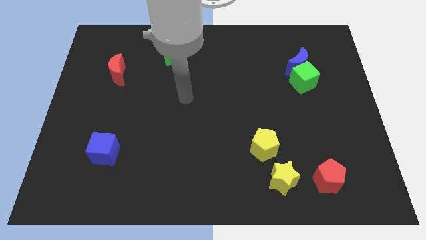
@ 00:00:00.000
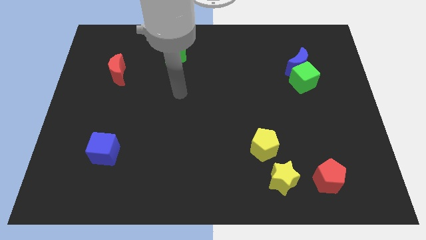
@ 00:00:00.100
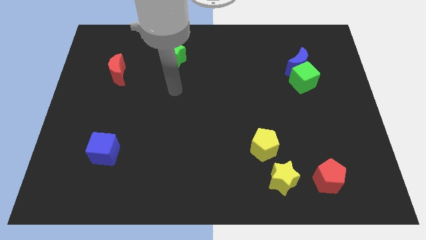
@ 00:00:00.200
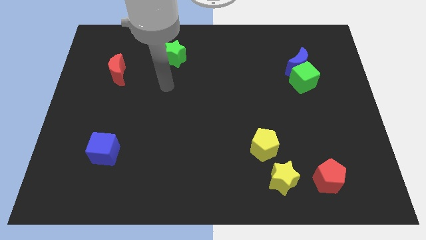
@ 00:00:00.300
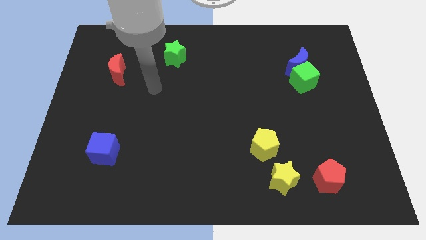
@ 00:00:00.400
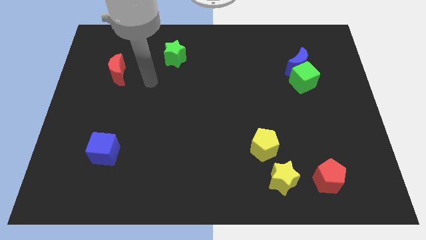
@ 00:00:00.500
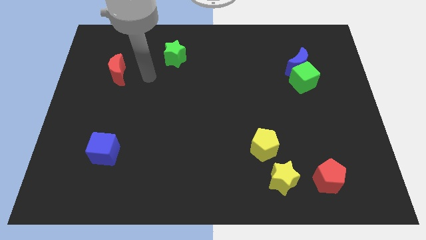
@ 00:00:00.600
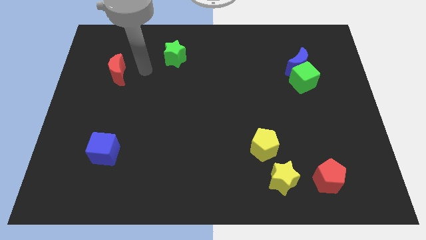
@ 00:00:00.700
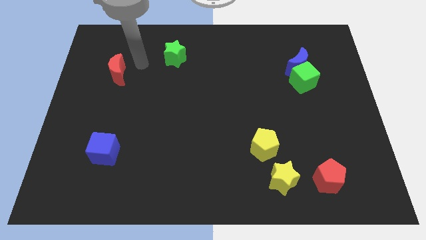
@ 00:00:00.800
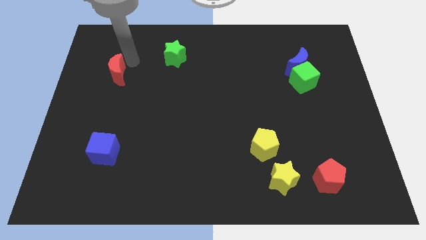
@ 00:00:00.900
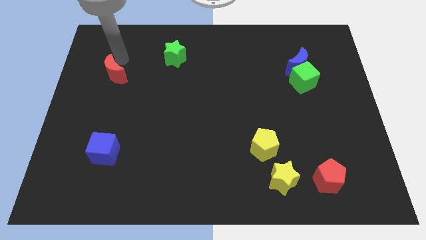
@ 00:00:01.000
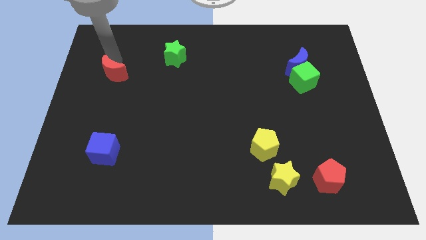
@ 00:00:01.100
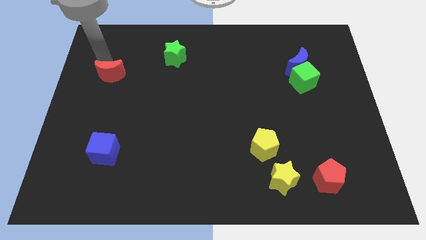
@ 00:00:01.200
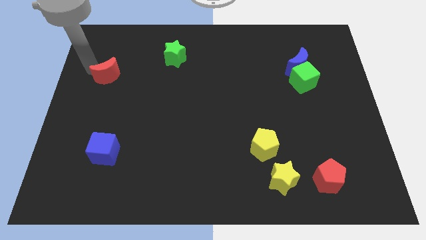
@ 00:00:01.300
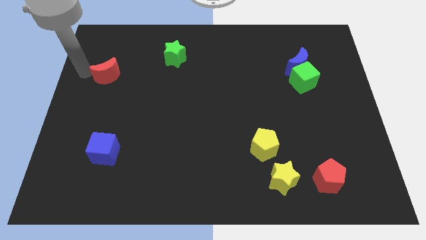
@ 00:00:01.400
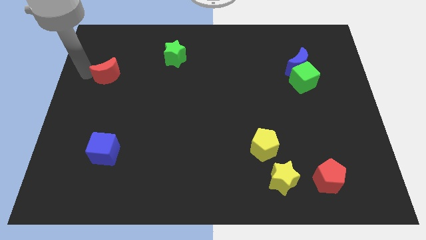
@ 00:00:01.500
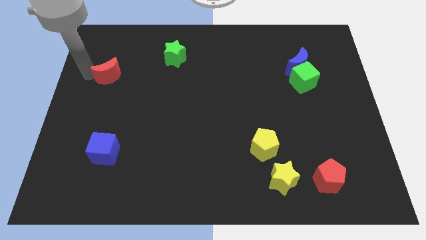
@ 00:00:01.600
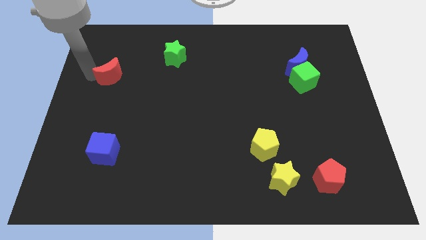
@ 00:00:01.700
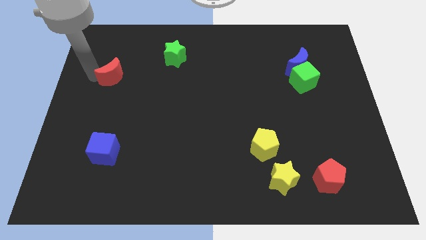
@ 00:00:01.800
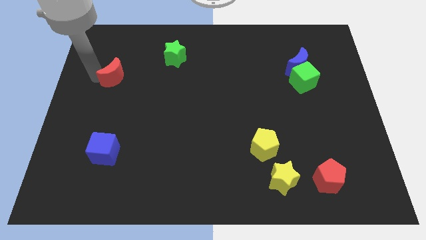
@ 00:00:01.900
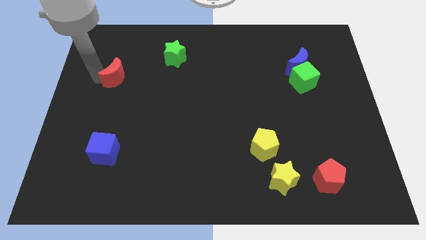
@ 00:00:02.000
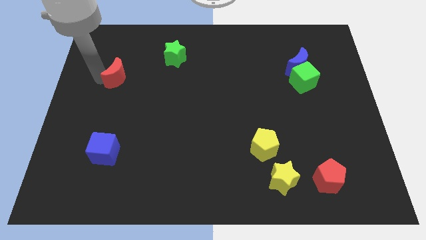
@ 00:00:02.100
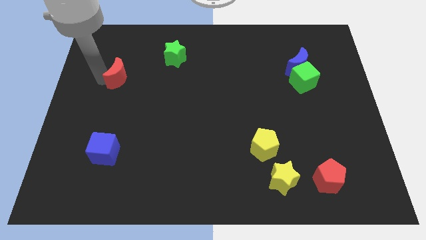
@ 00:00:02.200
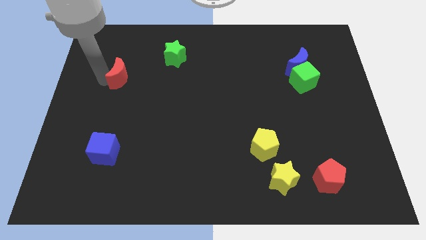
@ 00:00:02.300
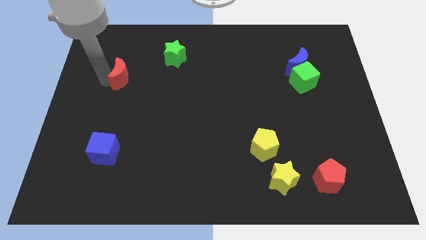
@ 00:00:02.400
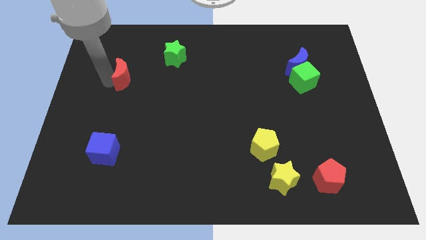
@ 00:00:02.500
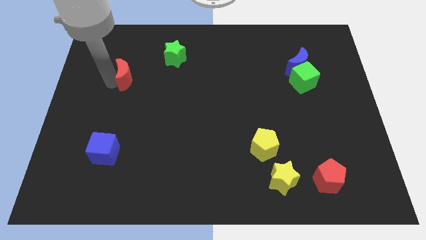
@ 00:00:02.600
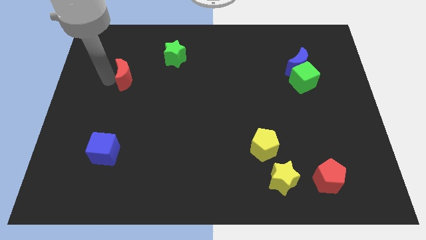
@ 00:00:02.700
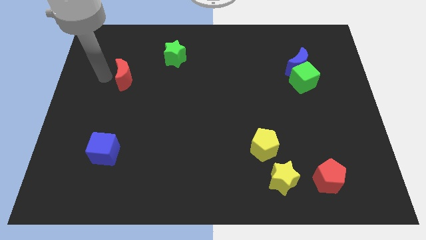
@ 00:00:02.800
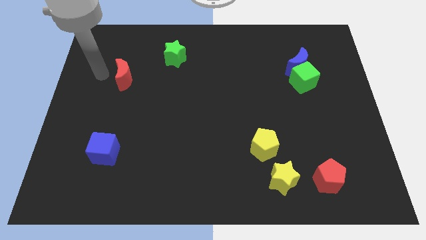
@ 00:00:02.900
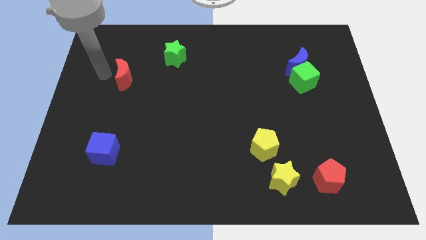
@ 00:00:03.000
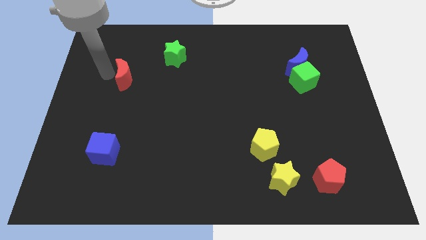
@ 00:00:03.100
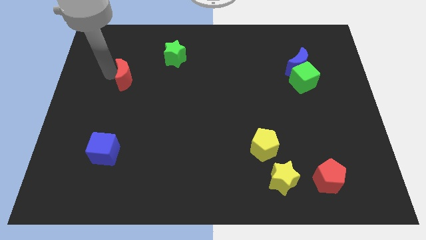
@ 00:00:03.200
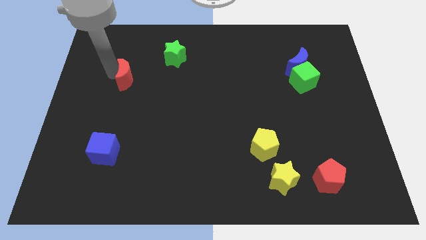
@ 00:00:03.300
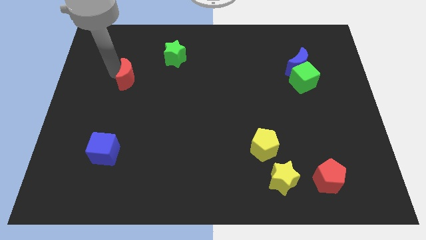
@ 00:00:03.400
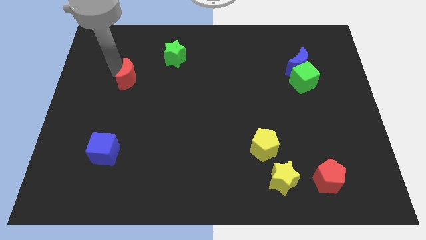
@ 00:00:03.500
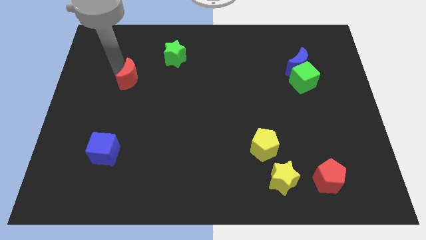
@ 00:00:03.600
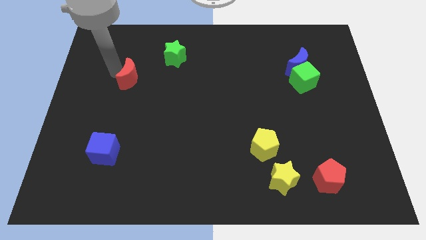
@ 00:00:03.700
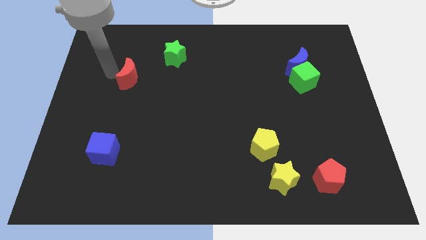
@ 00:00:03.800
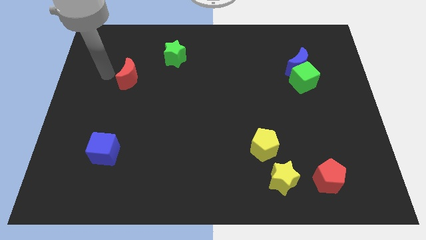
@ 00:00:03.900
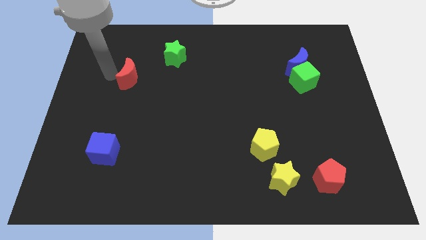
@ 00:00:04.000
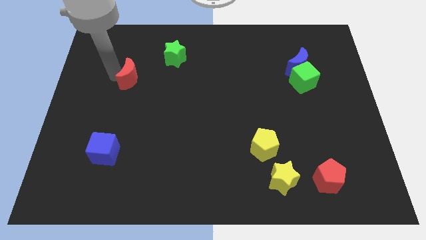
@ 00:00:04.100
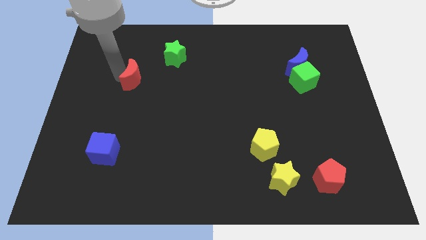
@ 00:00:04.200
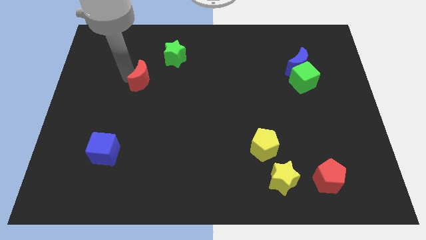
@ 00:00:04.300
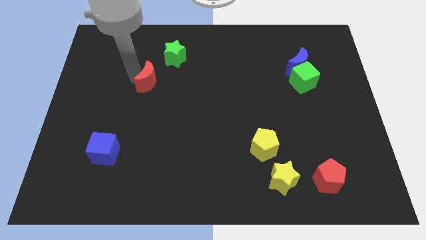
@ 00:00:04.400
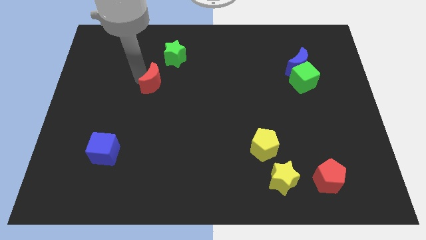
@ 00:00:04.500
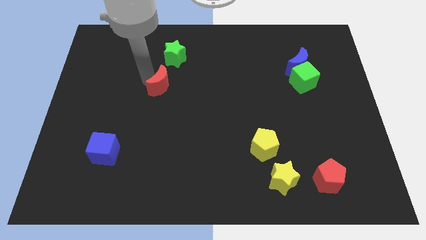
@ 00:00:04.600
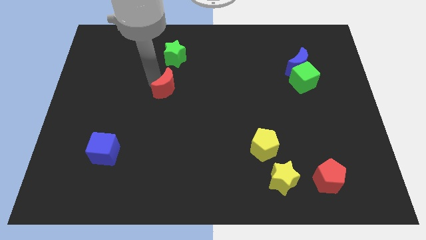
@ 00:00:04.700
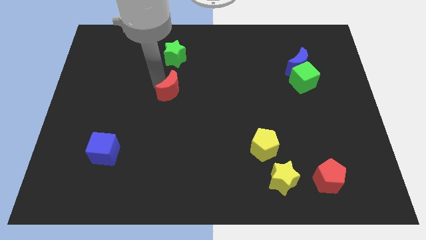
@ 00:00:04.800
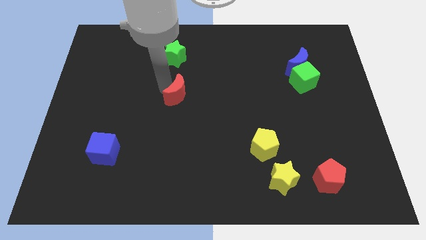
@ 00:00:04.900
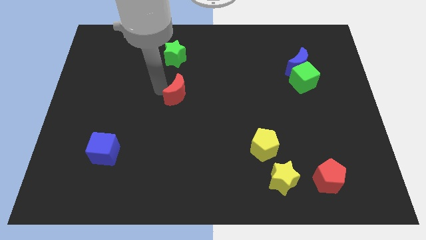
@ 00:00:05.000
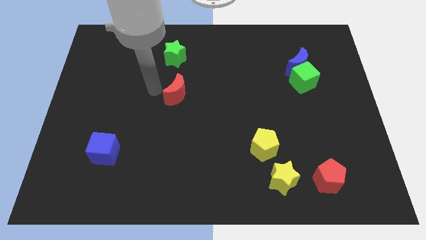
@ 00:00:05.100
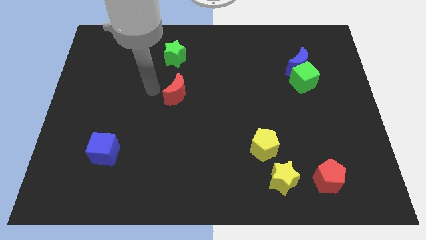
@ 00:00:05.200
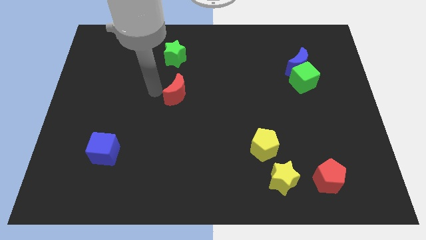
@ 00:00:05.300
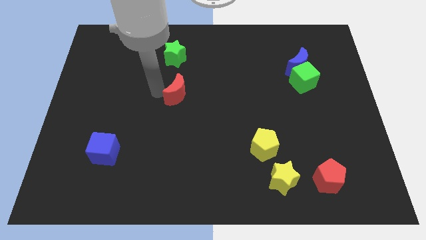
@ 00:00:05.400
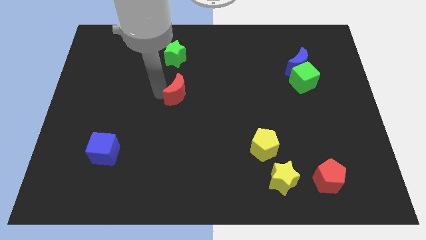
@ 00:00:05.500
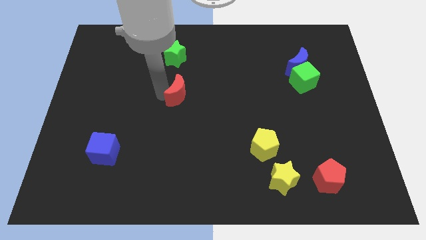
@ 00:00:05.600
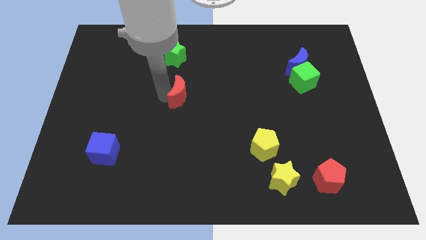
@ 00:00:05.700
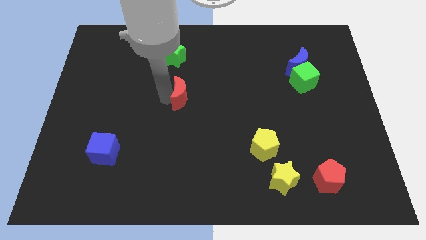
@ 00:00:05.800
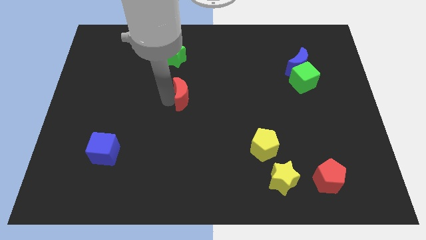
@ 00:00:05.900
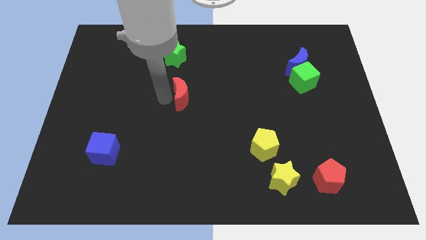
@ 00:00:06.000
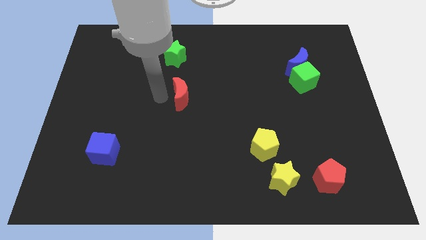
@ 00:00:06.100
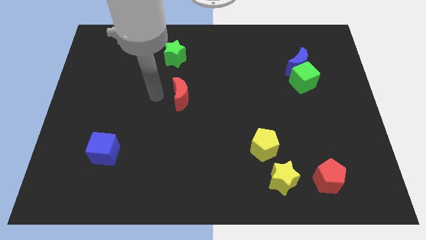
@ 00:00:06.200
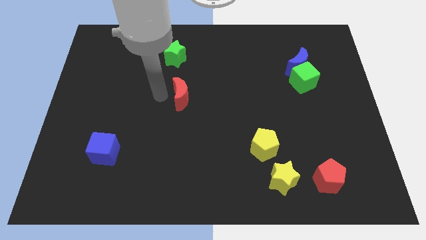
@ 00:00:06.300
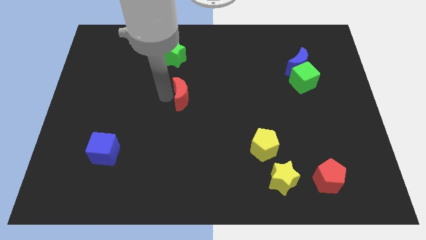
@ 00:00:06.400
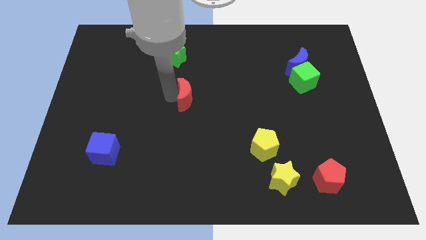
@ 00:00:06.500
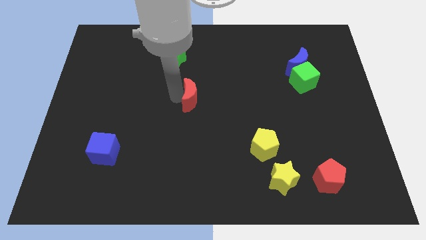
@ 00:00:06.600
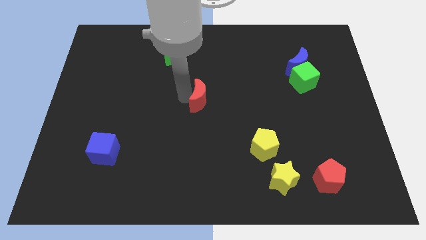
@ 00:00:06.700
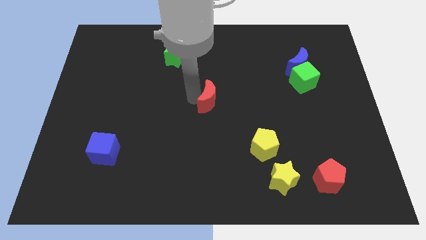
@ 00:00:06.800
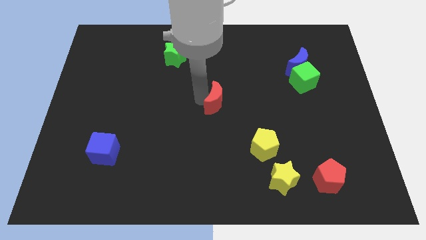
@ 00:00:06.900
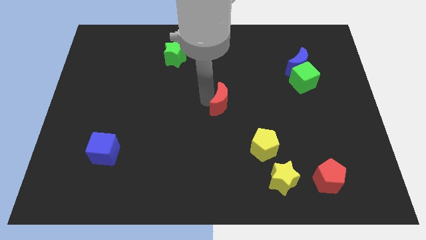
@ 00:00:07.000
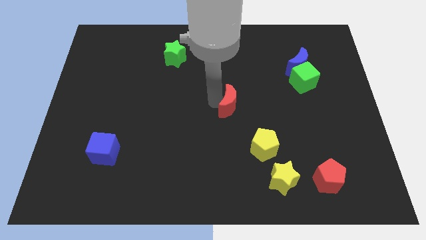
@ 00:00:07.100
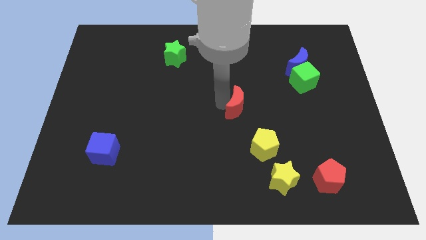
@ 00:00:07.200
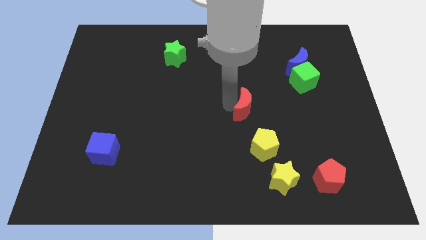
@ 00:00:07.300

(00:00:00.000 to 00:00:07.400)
push the red moon above the yellow pentagon
